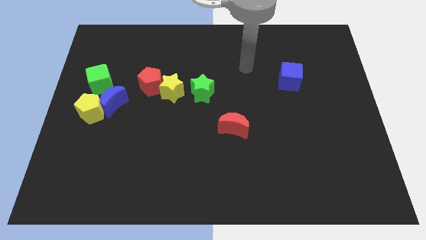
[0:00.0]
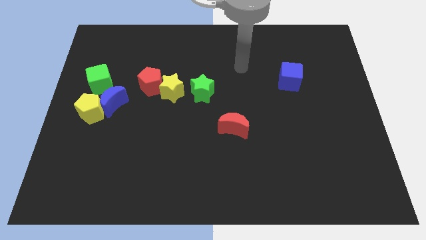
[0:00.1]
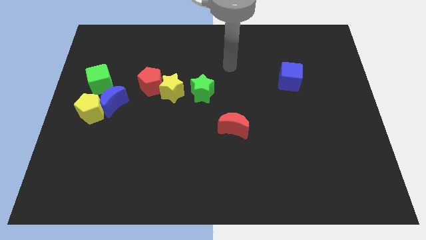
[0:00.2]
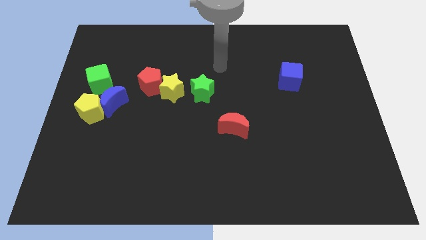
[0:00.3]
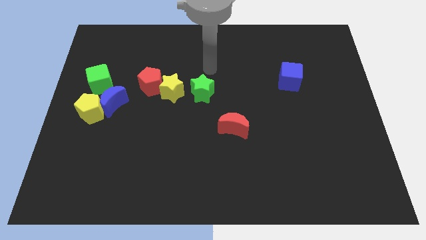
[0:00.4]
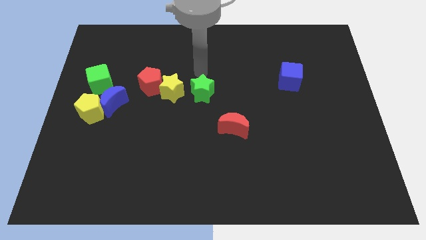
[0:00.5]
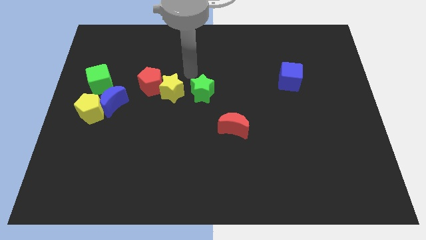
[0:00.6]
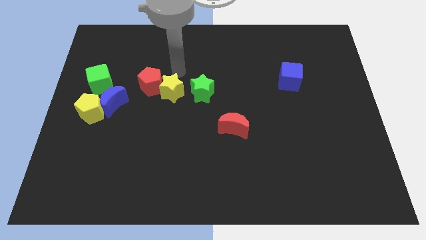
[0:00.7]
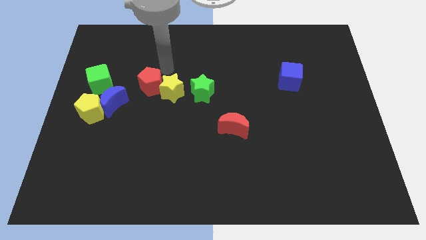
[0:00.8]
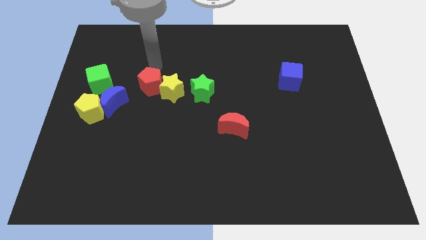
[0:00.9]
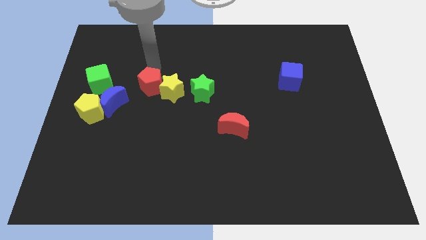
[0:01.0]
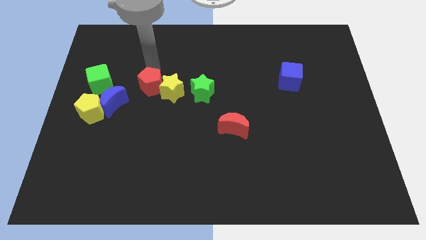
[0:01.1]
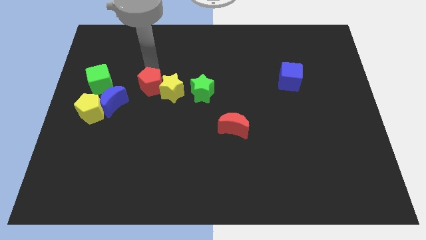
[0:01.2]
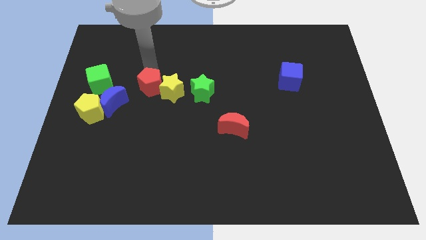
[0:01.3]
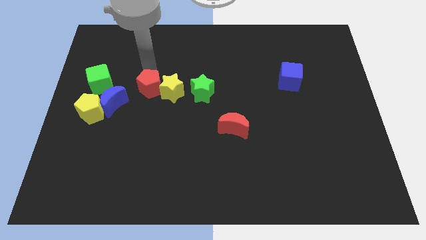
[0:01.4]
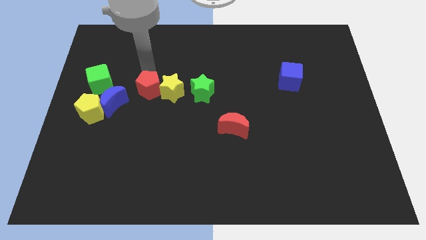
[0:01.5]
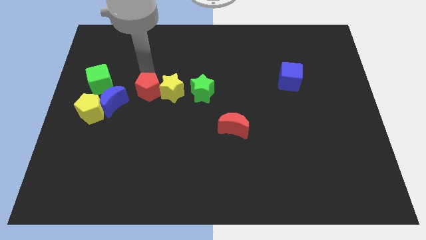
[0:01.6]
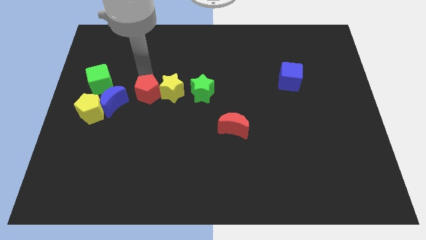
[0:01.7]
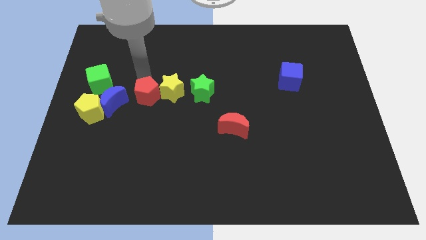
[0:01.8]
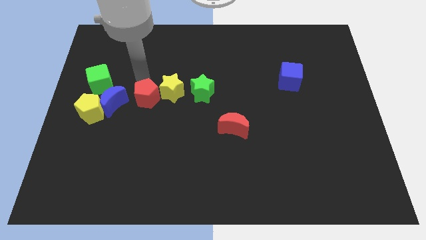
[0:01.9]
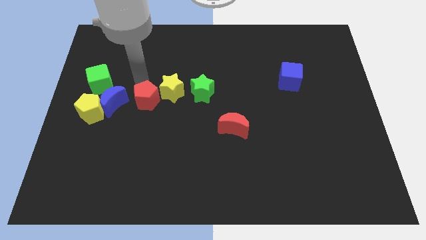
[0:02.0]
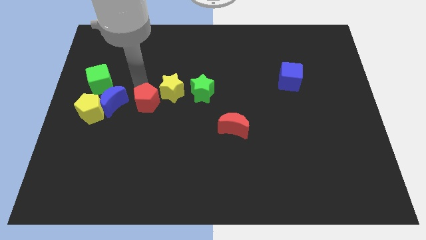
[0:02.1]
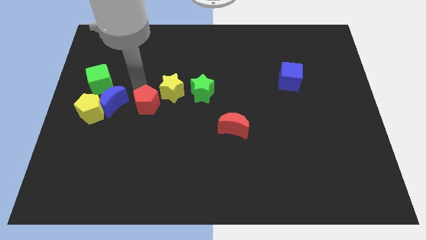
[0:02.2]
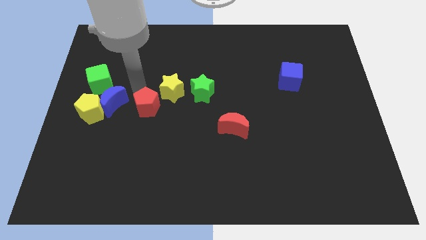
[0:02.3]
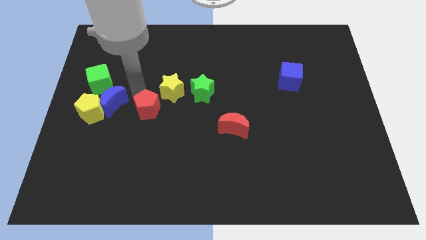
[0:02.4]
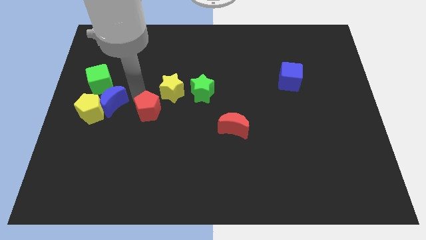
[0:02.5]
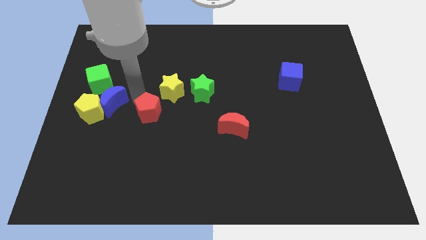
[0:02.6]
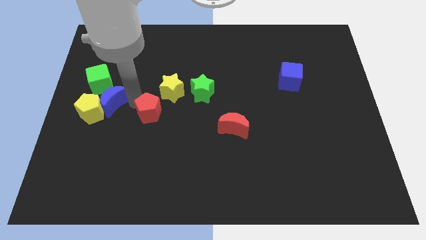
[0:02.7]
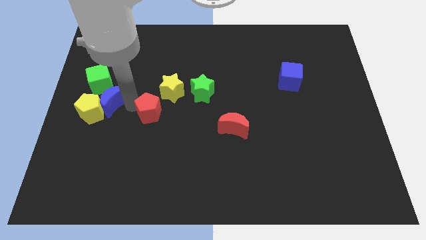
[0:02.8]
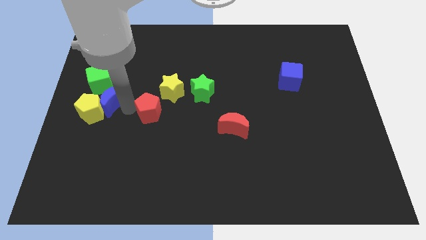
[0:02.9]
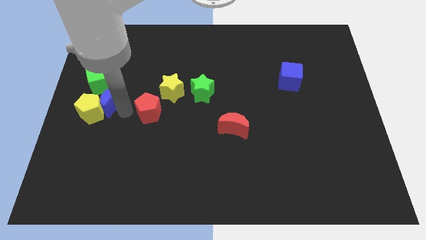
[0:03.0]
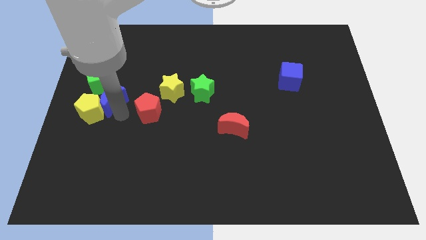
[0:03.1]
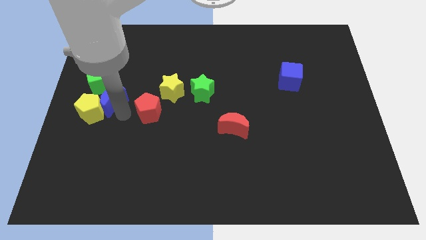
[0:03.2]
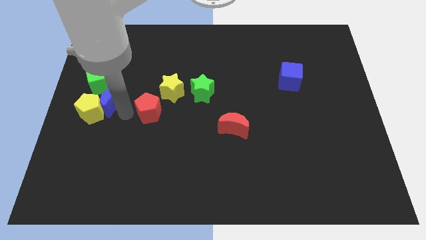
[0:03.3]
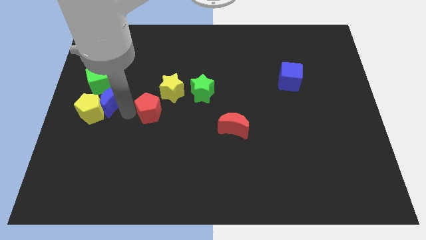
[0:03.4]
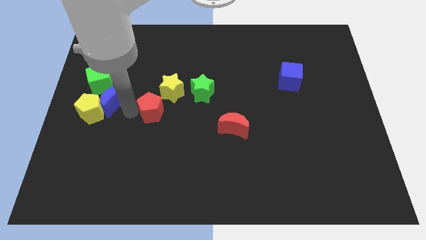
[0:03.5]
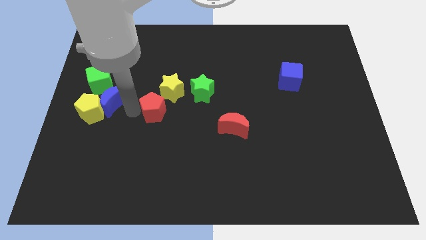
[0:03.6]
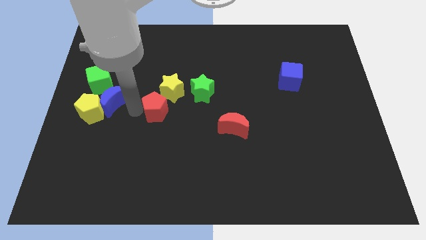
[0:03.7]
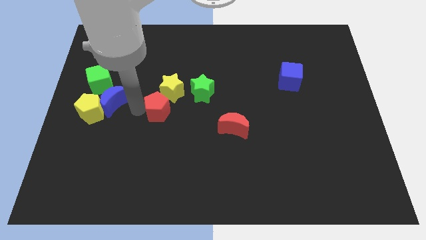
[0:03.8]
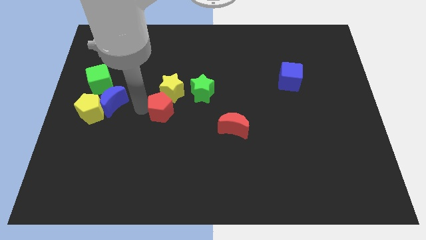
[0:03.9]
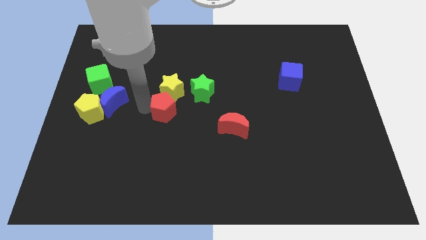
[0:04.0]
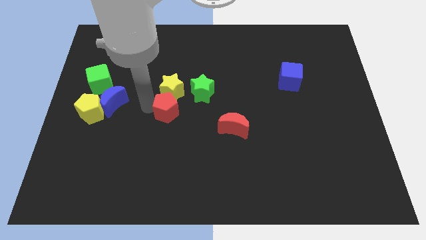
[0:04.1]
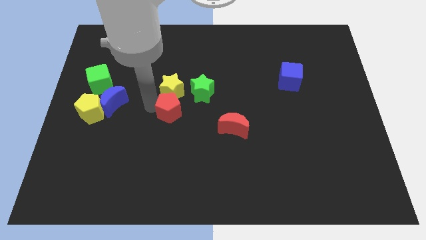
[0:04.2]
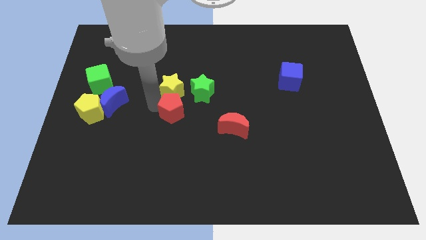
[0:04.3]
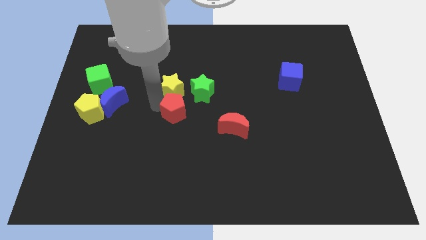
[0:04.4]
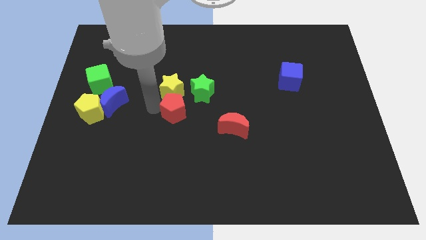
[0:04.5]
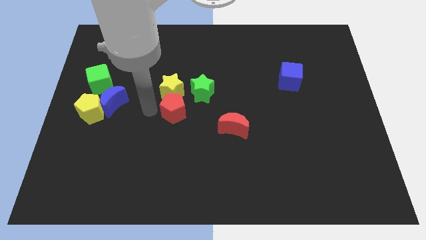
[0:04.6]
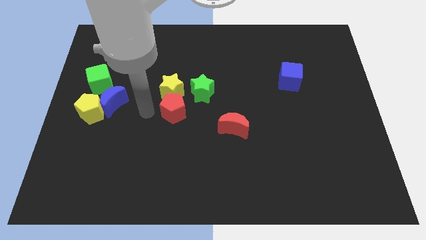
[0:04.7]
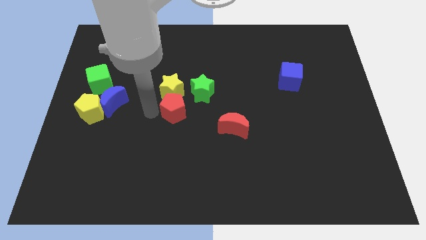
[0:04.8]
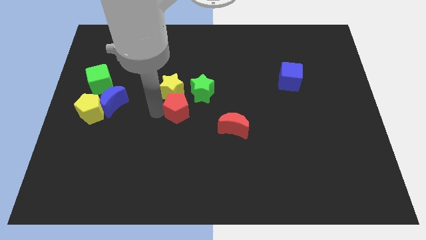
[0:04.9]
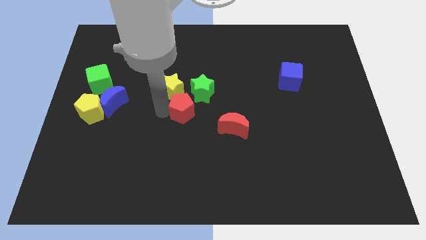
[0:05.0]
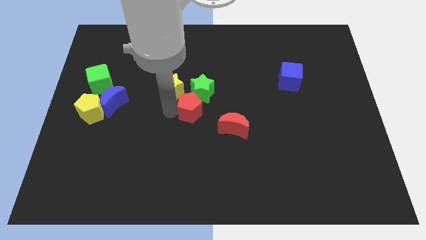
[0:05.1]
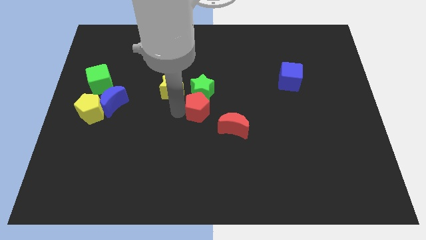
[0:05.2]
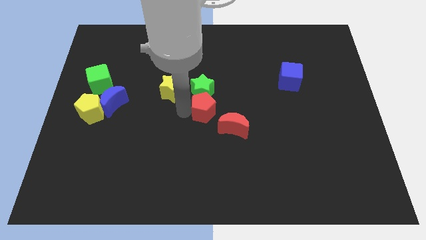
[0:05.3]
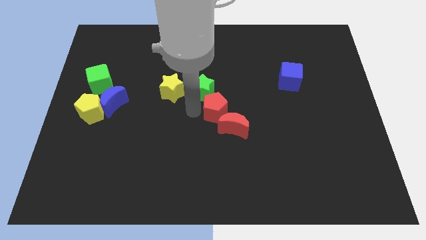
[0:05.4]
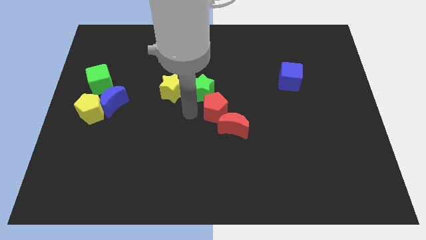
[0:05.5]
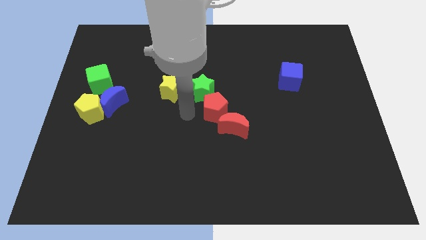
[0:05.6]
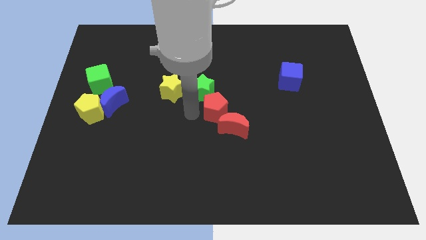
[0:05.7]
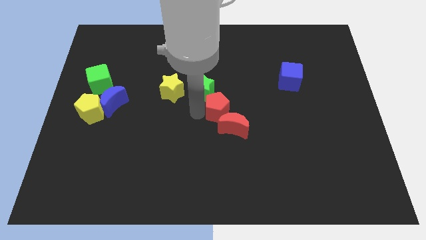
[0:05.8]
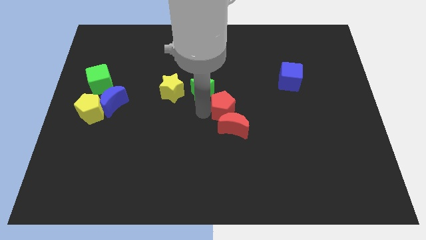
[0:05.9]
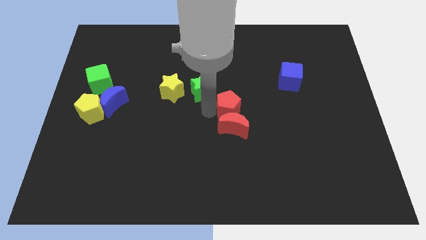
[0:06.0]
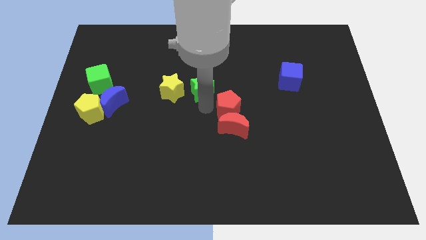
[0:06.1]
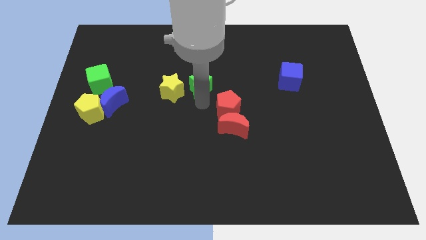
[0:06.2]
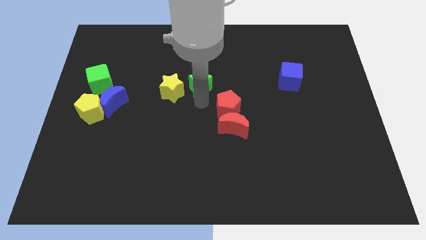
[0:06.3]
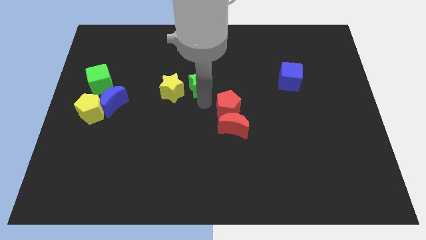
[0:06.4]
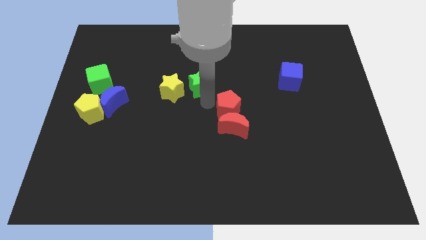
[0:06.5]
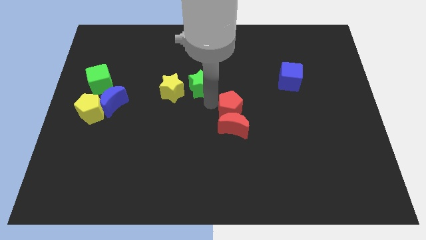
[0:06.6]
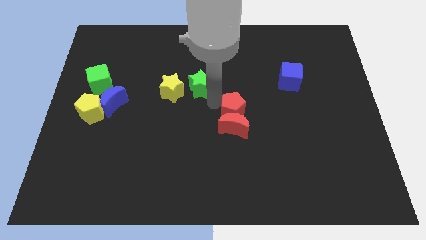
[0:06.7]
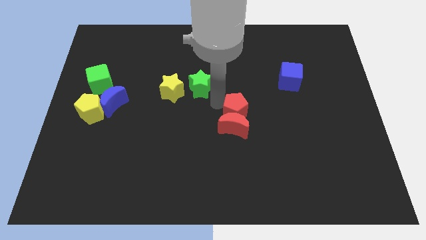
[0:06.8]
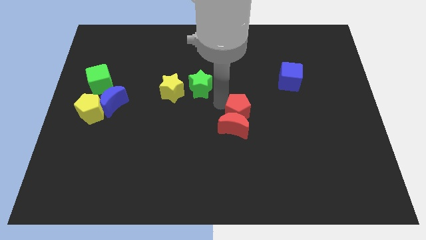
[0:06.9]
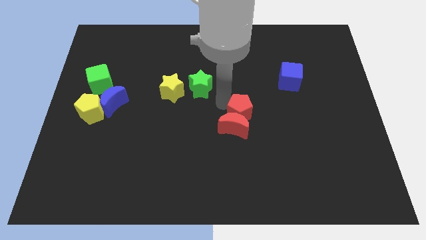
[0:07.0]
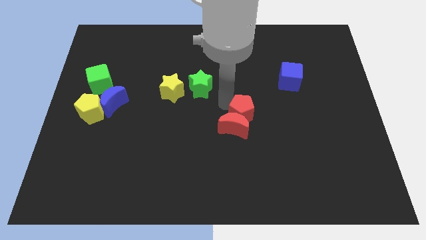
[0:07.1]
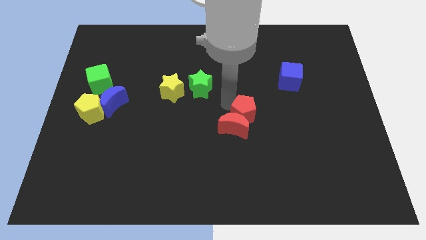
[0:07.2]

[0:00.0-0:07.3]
push the red pentagon to the right of the red moon

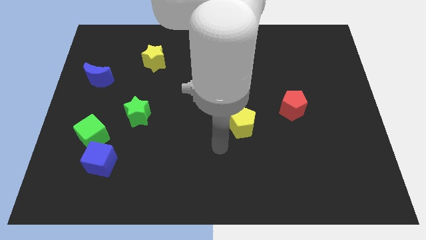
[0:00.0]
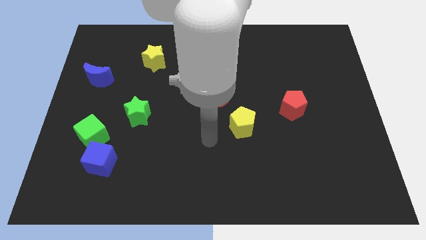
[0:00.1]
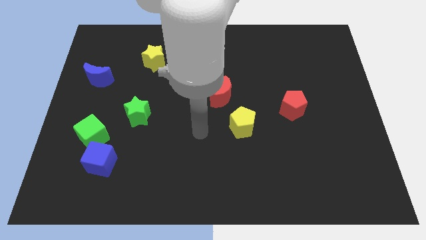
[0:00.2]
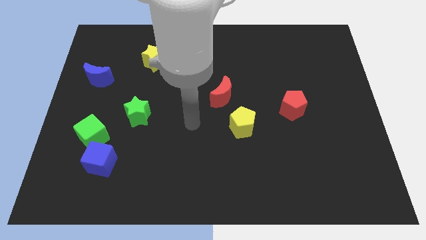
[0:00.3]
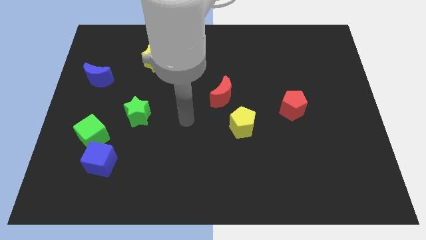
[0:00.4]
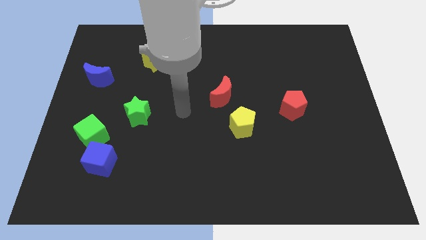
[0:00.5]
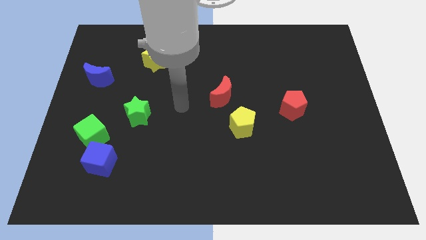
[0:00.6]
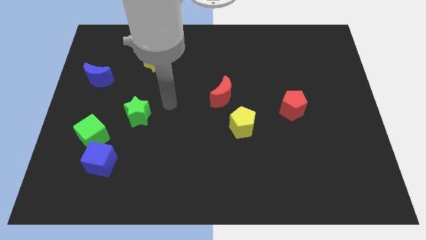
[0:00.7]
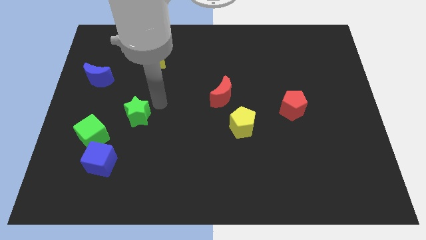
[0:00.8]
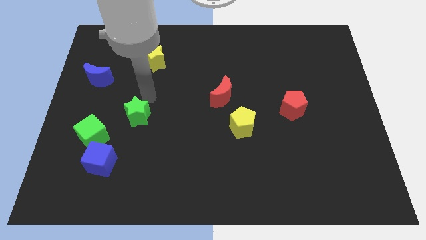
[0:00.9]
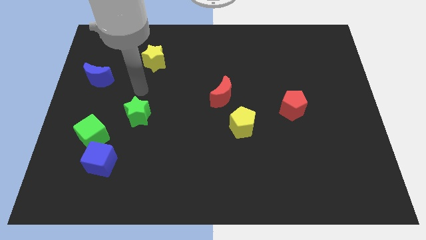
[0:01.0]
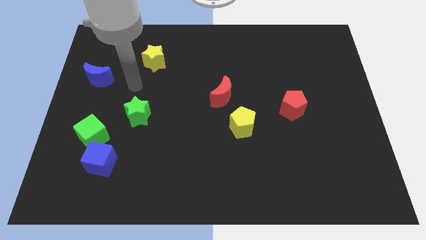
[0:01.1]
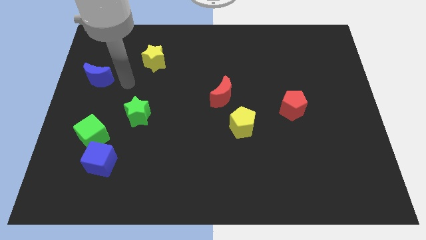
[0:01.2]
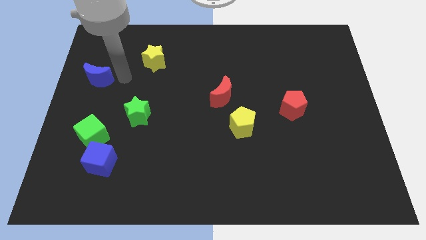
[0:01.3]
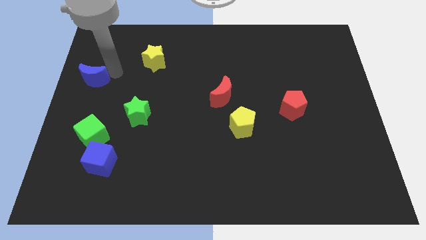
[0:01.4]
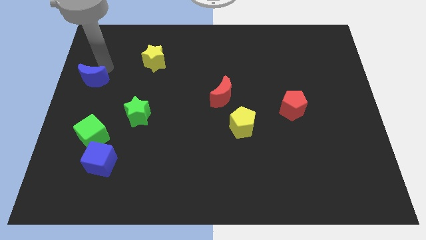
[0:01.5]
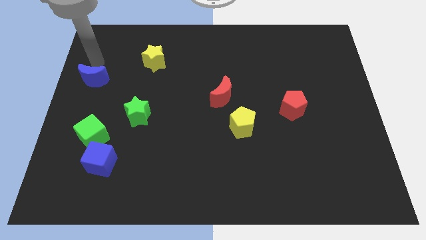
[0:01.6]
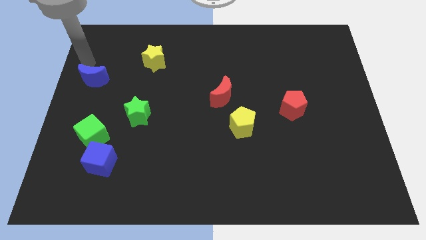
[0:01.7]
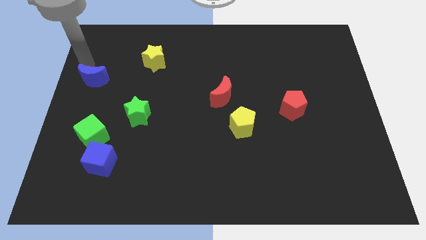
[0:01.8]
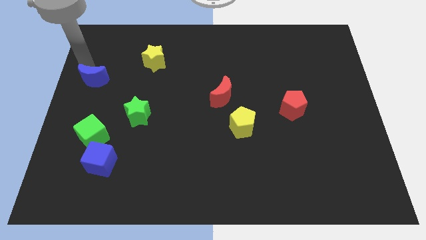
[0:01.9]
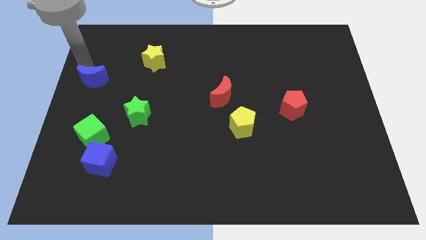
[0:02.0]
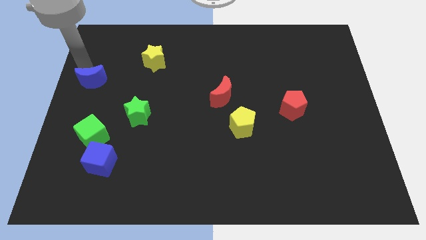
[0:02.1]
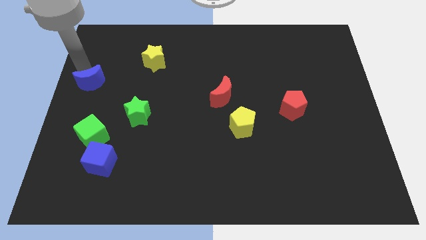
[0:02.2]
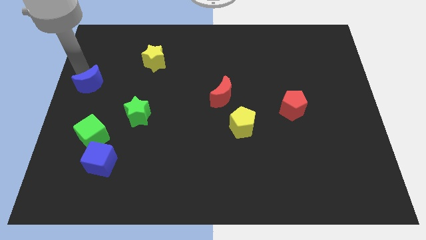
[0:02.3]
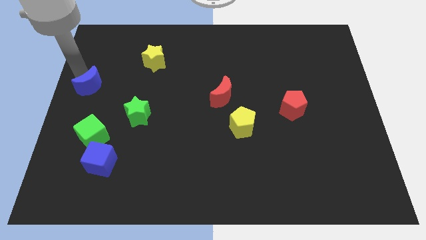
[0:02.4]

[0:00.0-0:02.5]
push the blue moon to the top of the green cube
